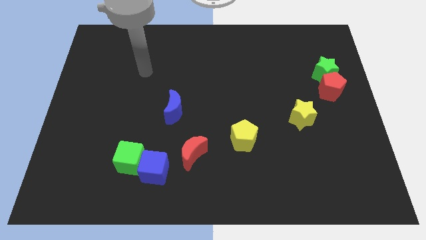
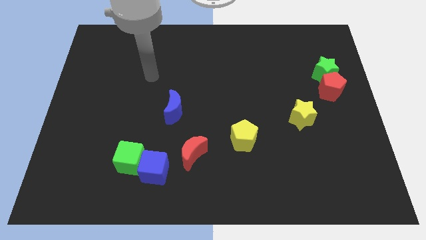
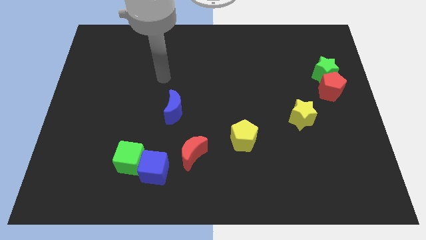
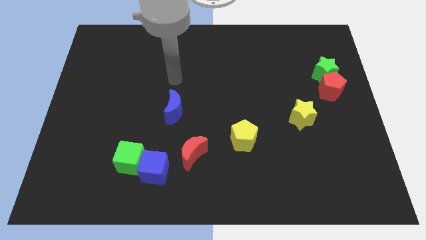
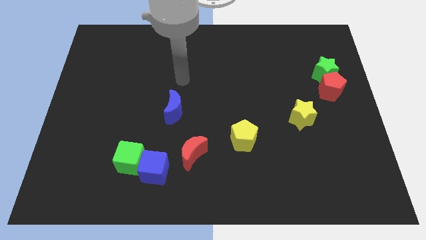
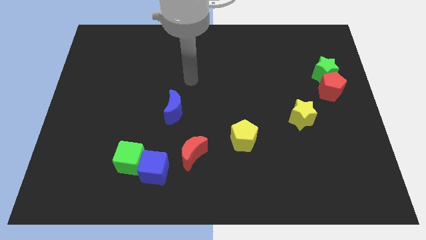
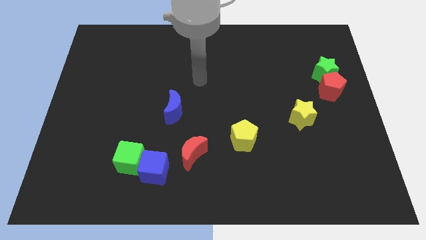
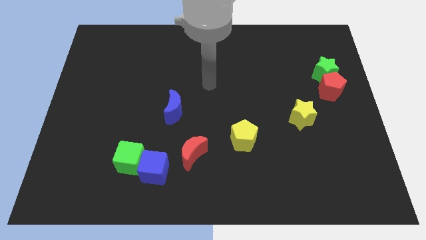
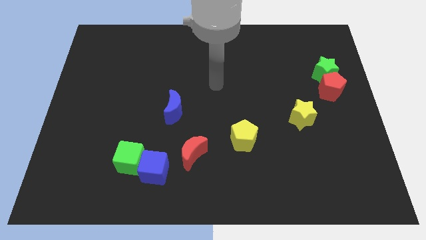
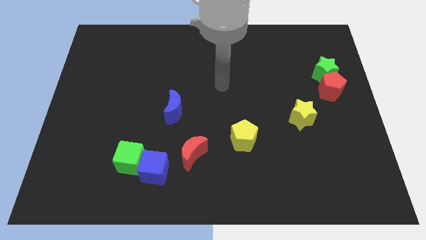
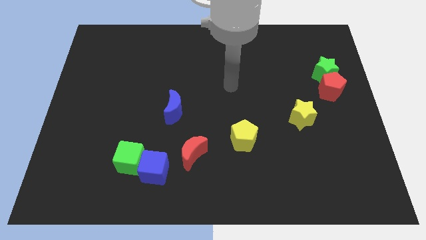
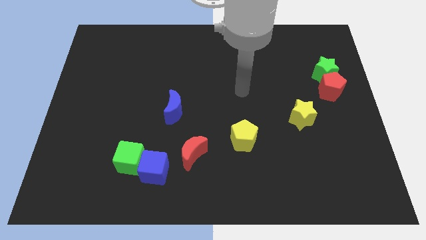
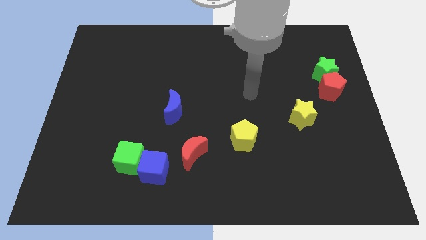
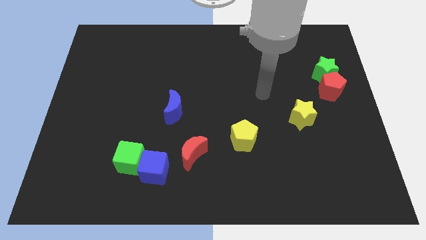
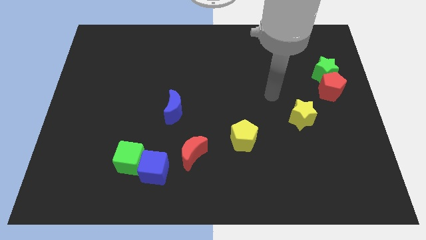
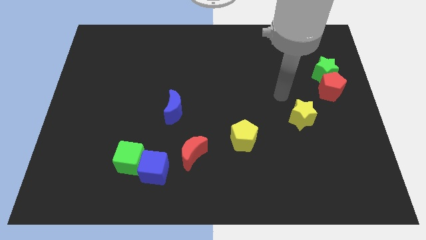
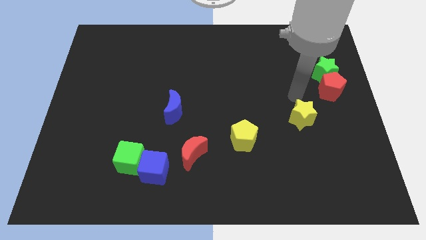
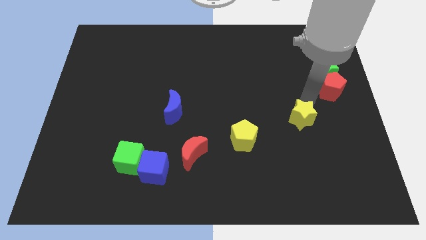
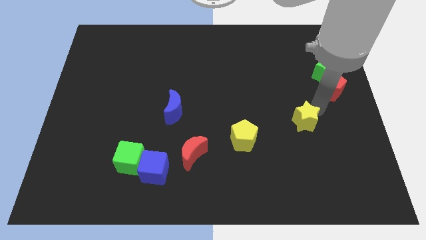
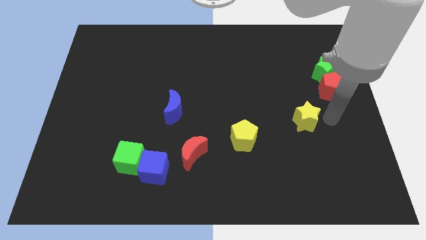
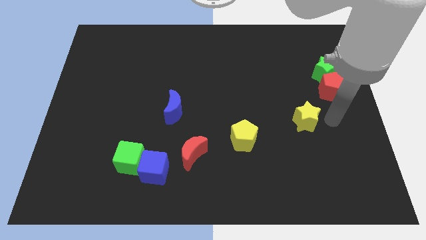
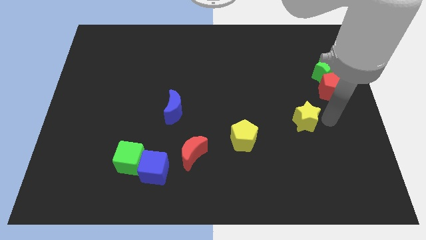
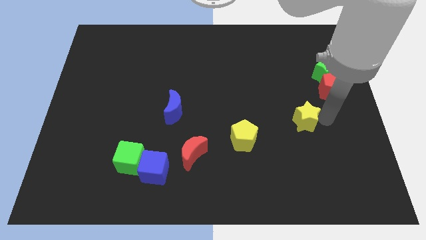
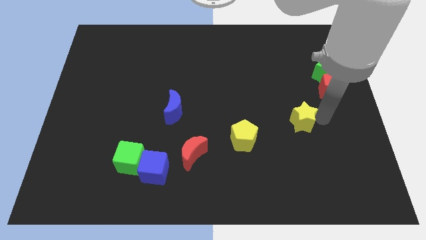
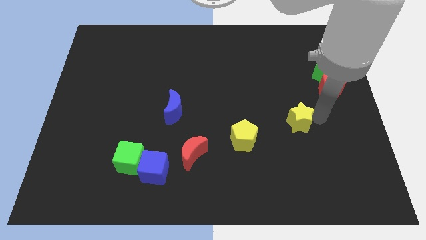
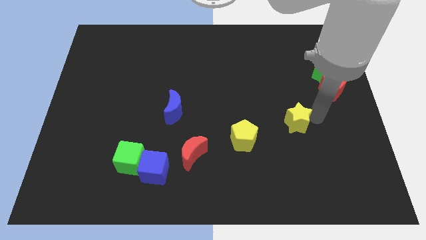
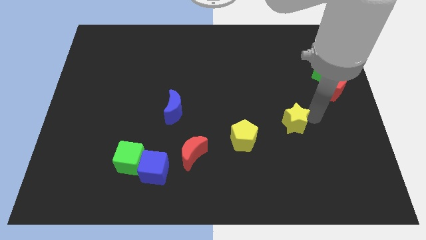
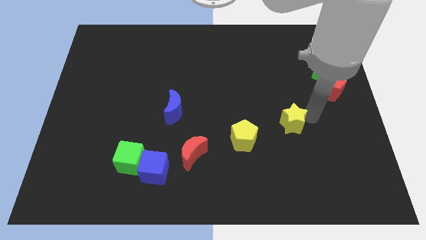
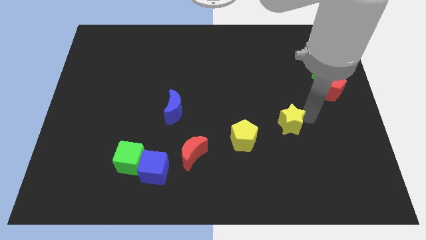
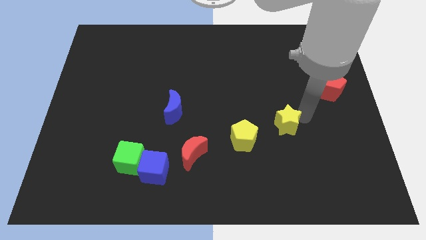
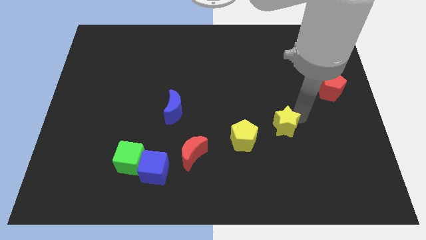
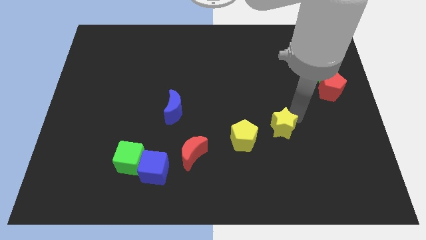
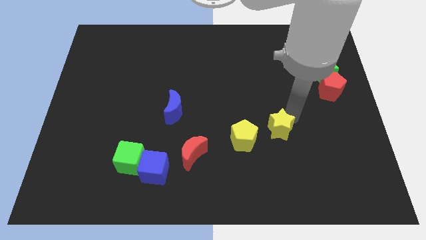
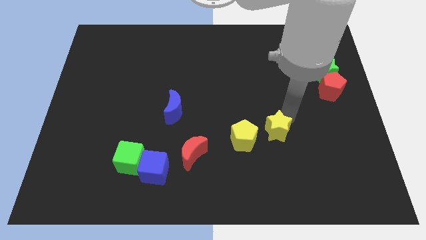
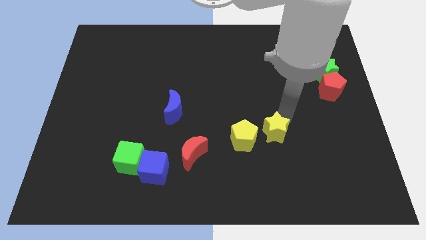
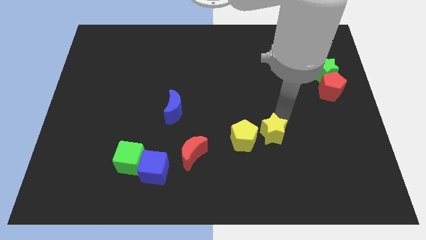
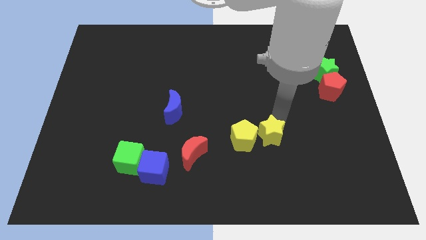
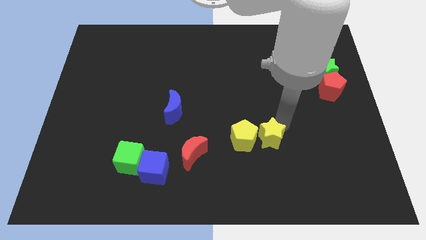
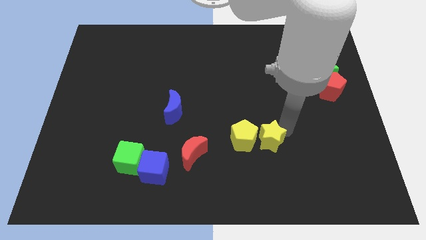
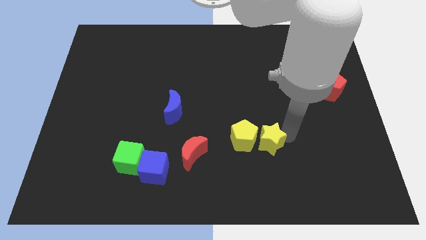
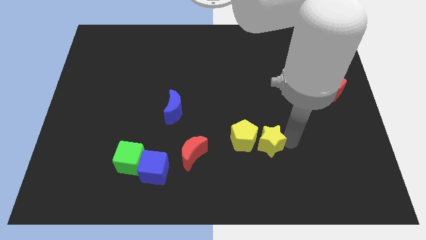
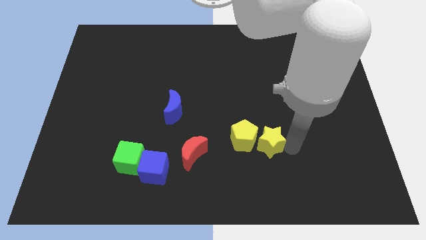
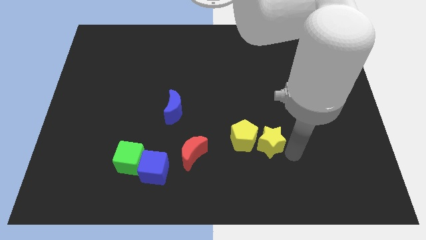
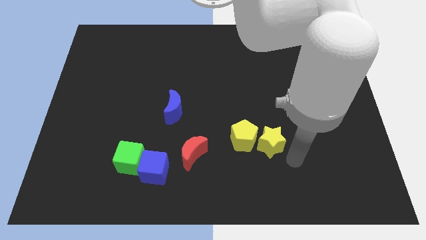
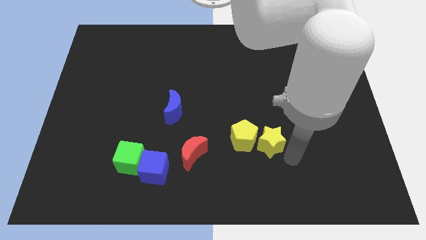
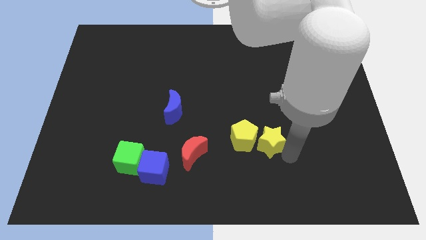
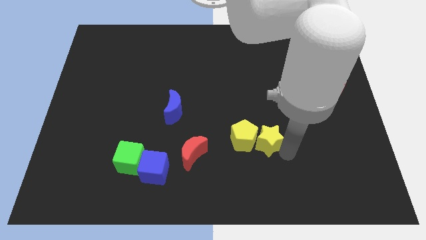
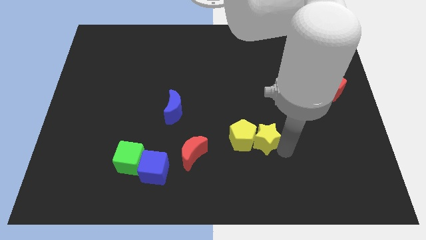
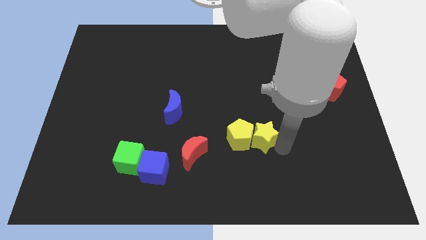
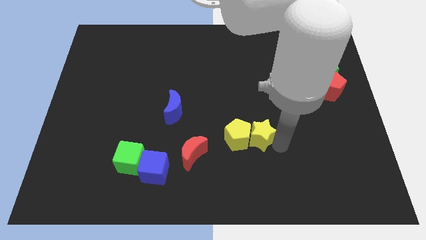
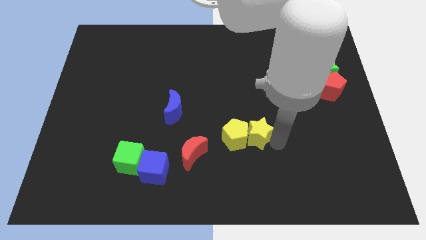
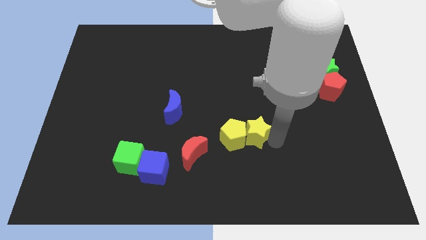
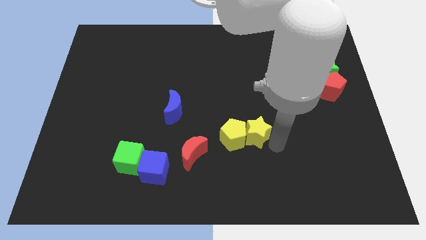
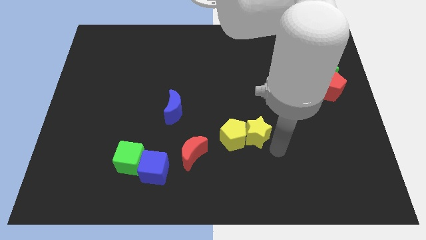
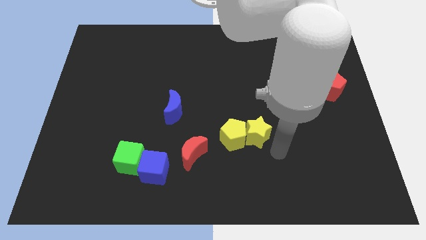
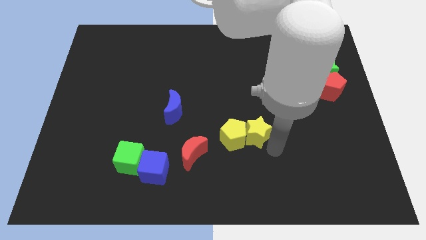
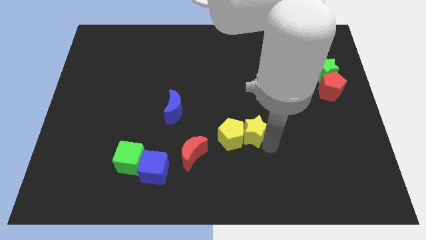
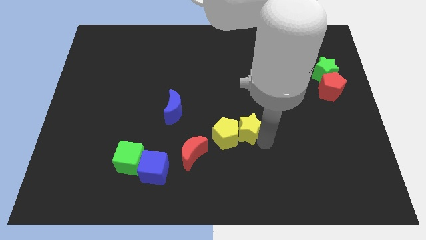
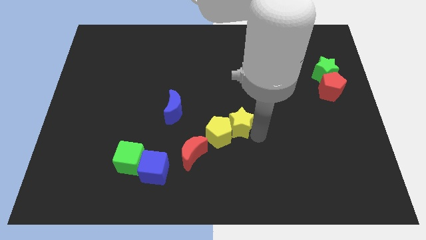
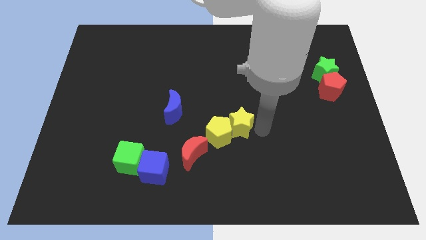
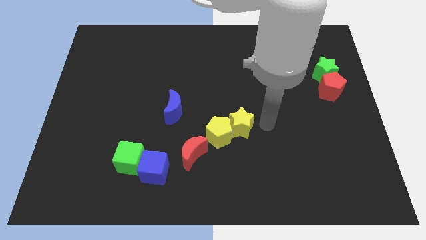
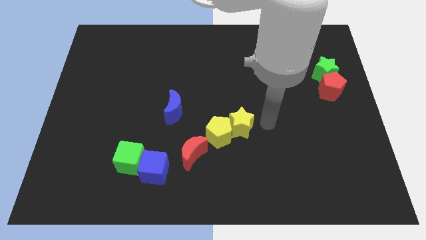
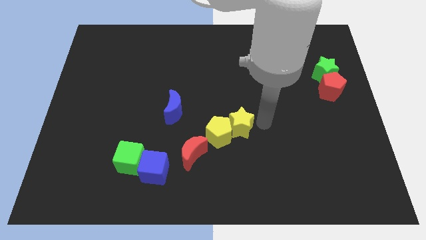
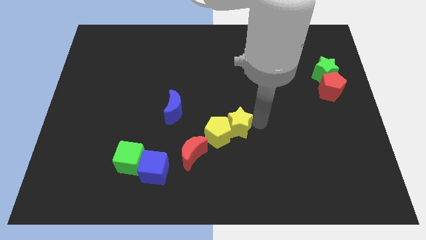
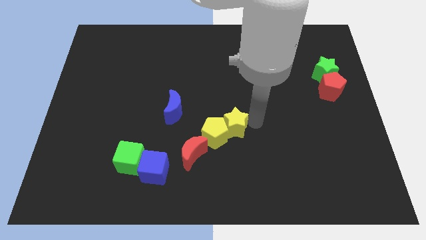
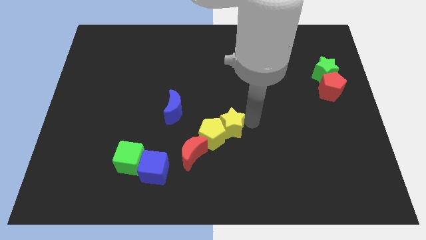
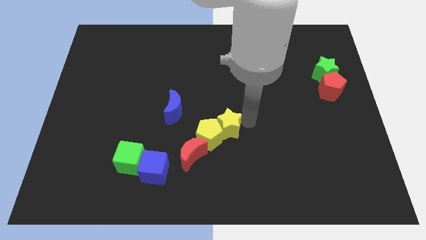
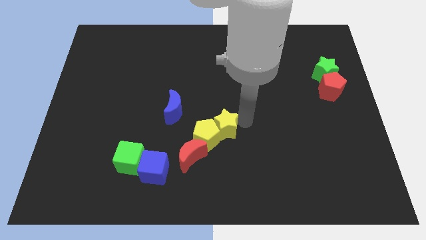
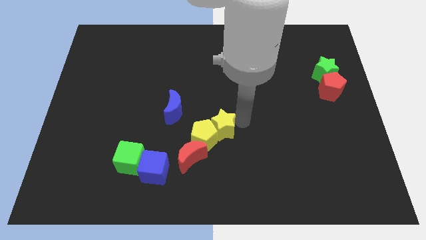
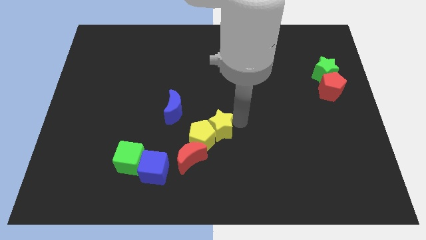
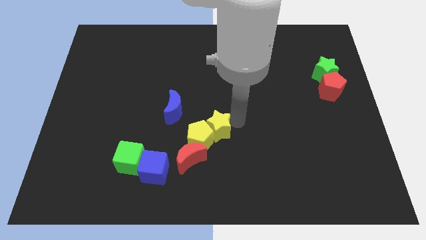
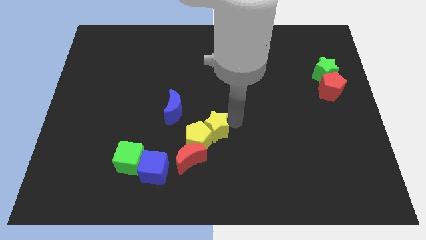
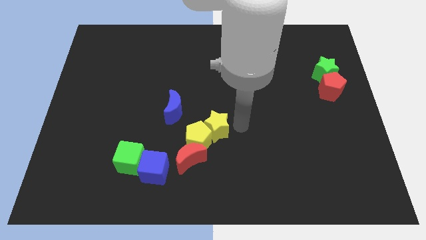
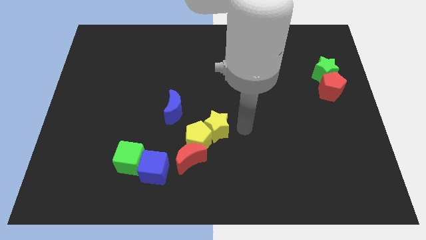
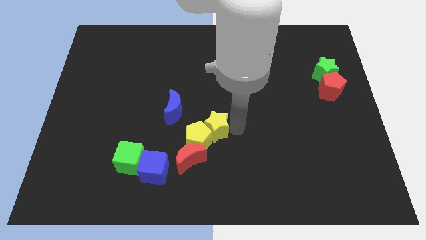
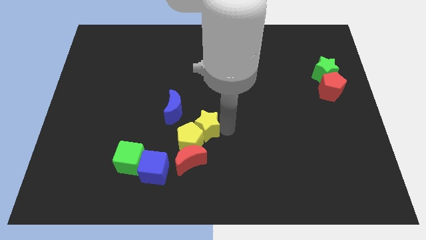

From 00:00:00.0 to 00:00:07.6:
slide the yellow star to the left
